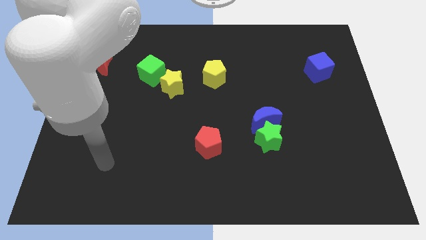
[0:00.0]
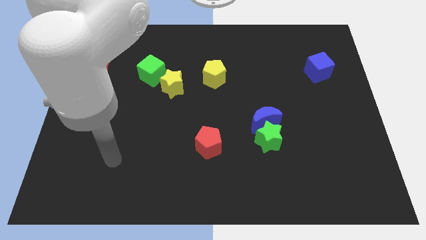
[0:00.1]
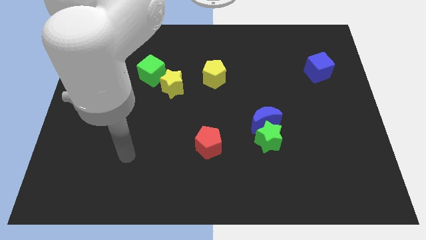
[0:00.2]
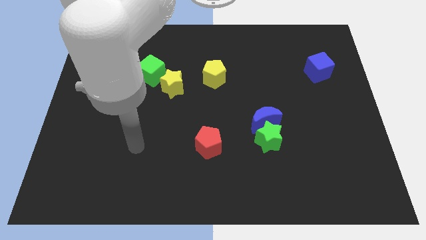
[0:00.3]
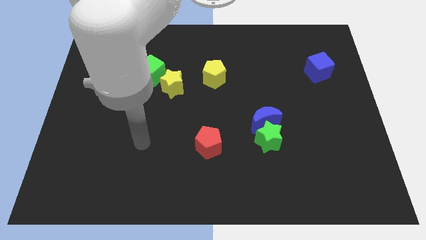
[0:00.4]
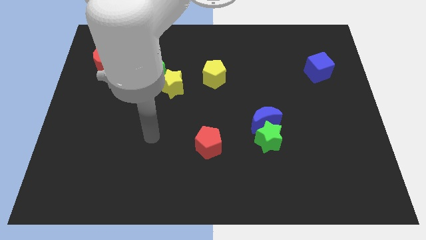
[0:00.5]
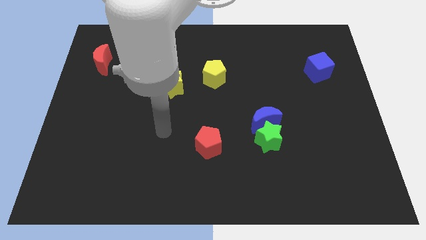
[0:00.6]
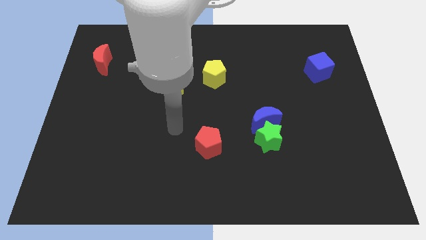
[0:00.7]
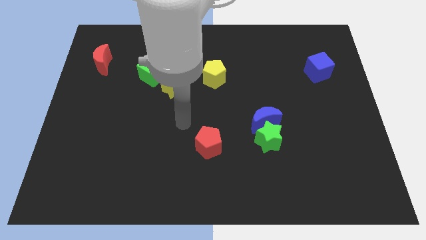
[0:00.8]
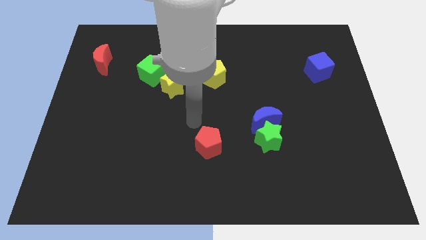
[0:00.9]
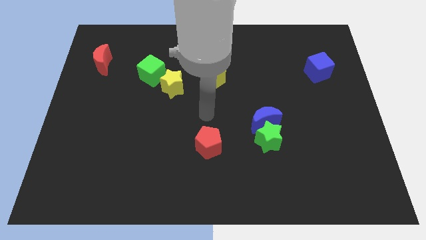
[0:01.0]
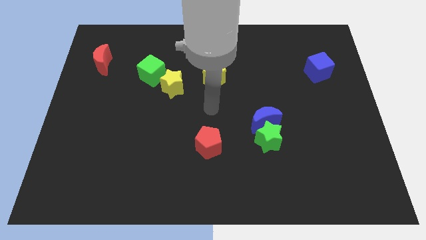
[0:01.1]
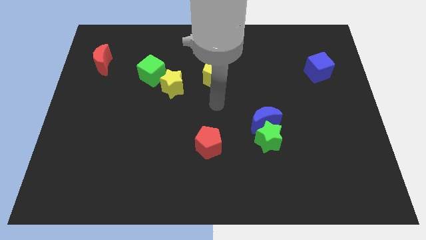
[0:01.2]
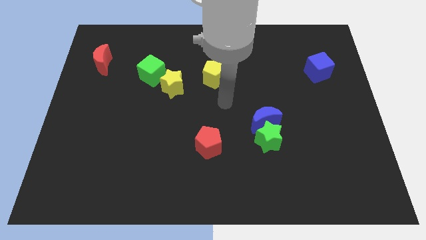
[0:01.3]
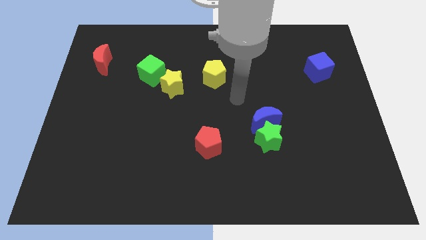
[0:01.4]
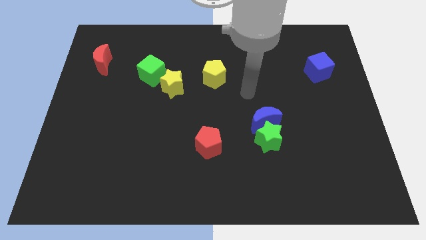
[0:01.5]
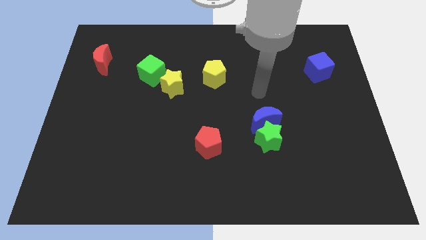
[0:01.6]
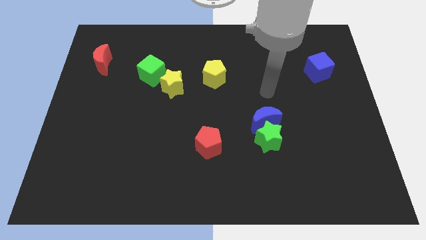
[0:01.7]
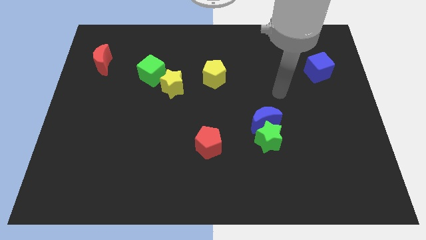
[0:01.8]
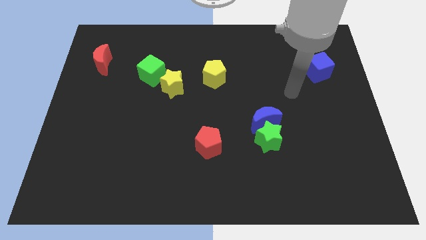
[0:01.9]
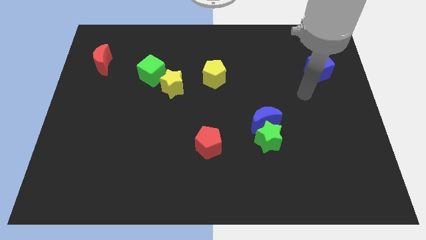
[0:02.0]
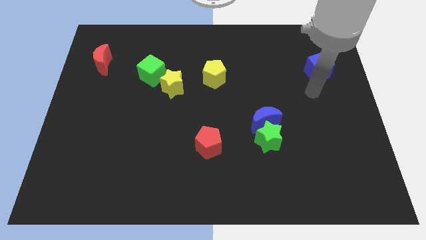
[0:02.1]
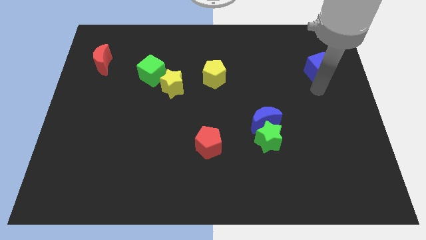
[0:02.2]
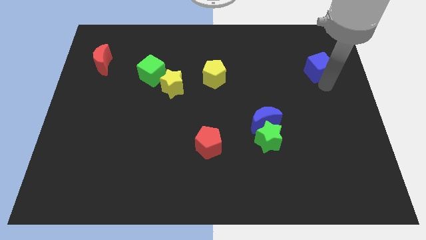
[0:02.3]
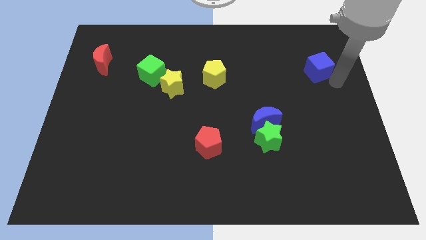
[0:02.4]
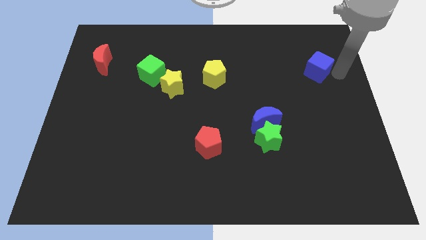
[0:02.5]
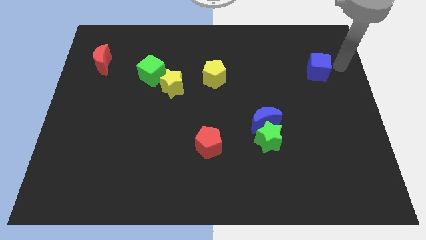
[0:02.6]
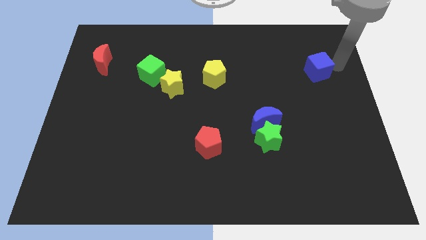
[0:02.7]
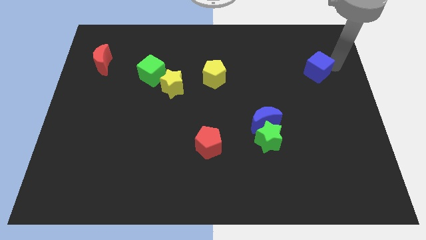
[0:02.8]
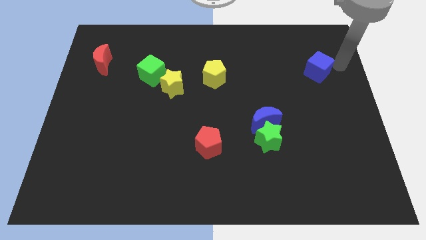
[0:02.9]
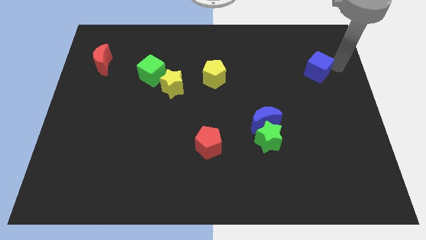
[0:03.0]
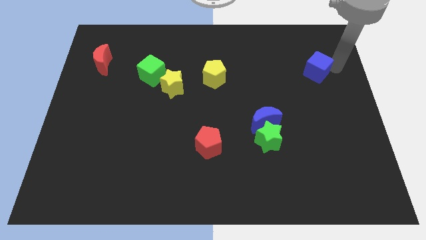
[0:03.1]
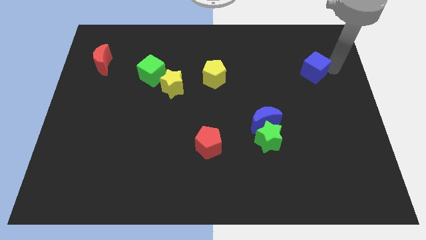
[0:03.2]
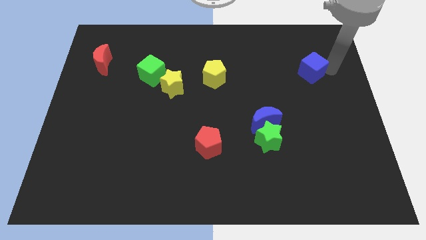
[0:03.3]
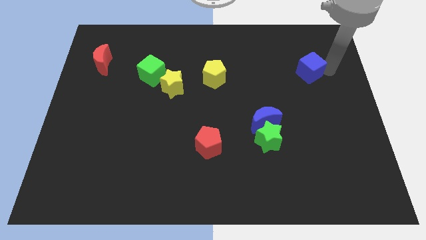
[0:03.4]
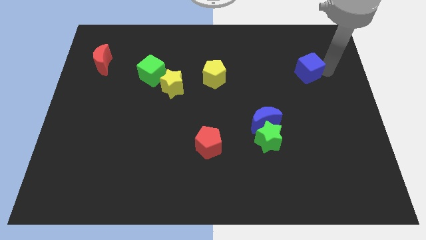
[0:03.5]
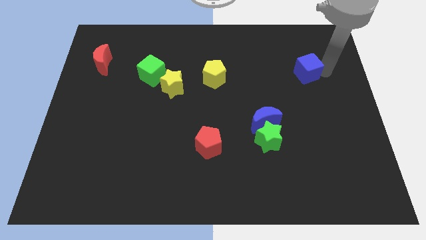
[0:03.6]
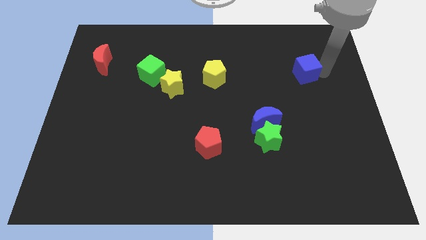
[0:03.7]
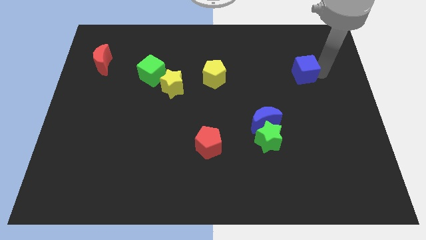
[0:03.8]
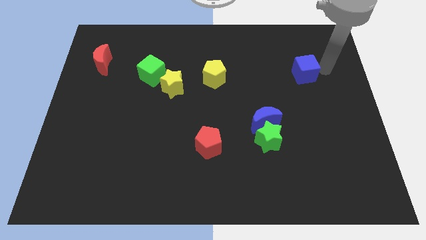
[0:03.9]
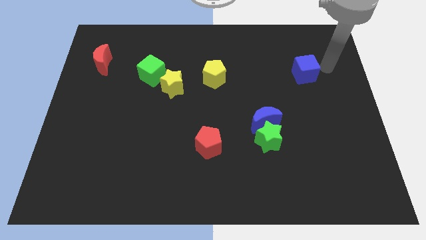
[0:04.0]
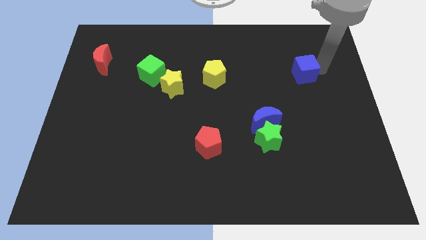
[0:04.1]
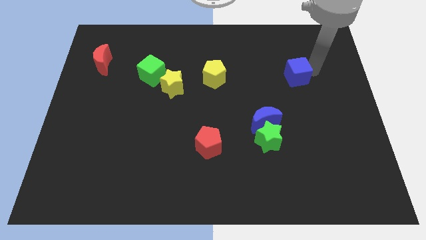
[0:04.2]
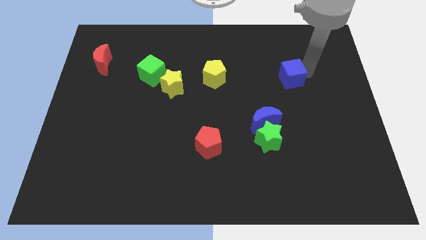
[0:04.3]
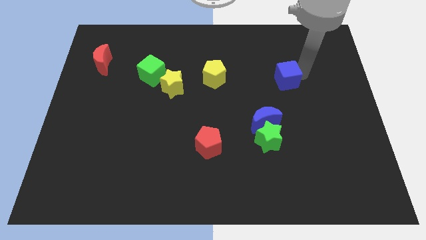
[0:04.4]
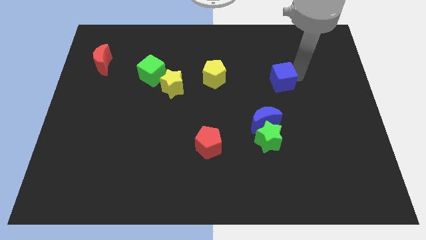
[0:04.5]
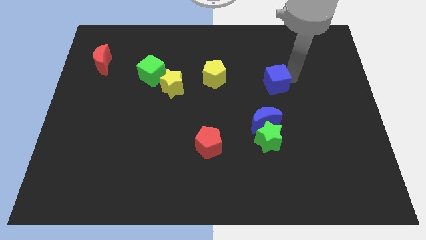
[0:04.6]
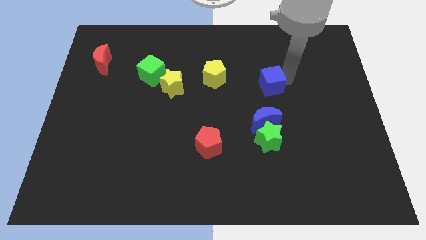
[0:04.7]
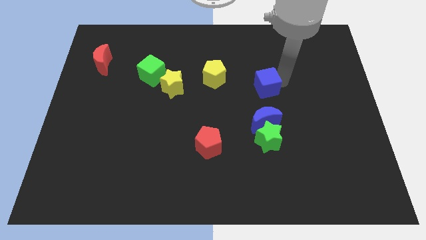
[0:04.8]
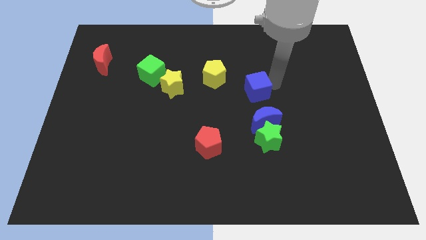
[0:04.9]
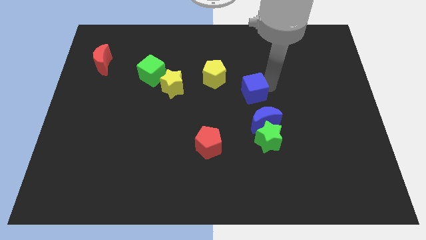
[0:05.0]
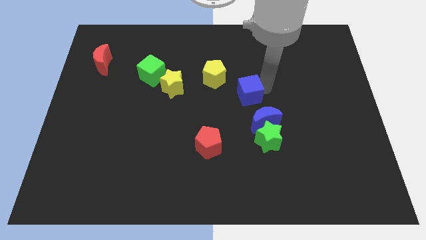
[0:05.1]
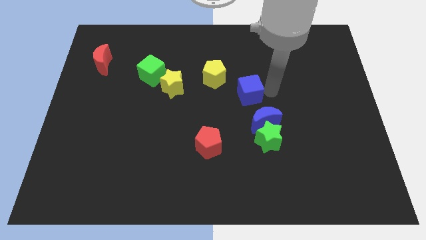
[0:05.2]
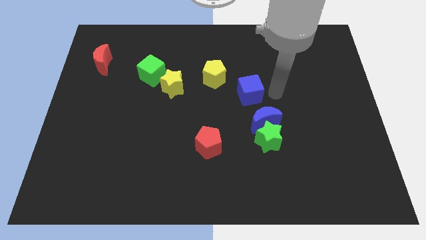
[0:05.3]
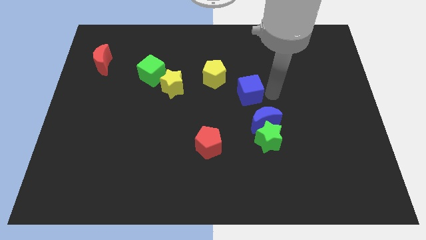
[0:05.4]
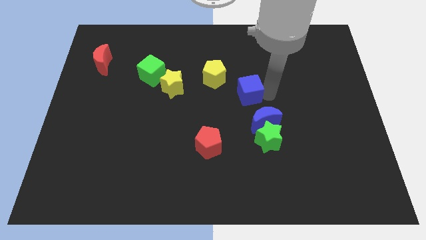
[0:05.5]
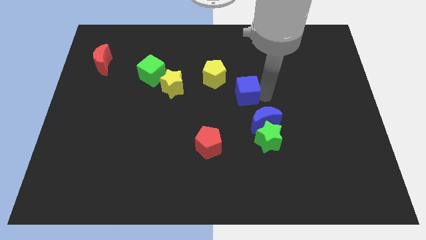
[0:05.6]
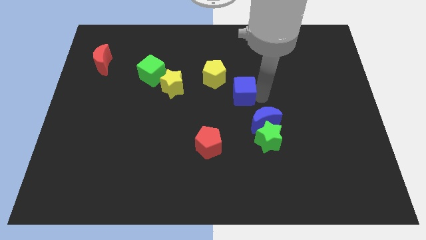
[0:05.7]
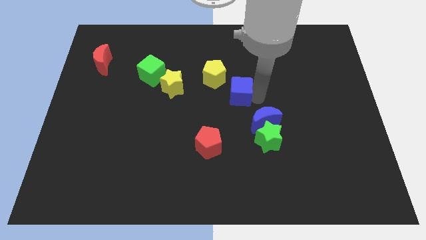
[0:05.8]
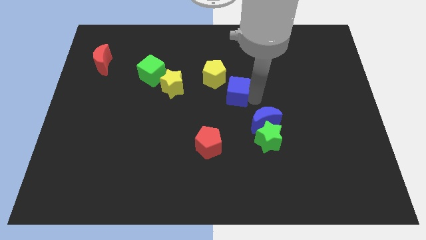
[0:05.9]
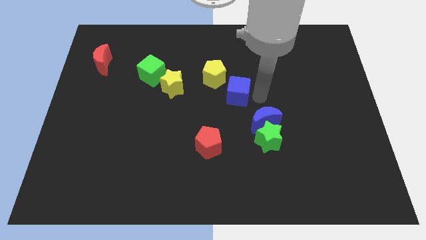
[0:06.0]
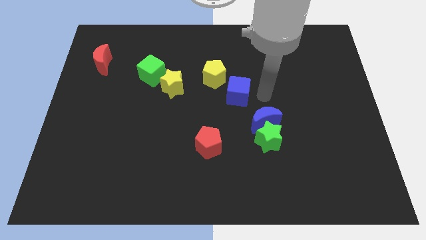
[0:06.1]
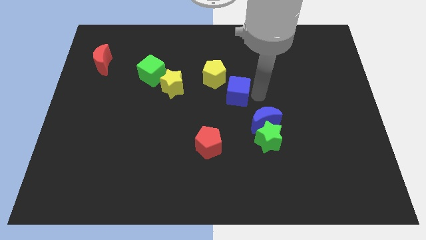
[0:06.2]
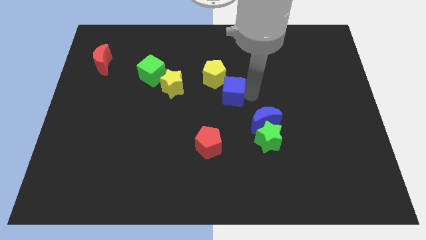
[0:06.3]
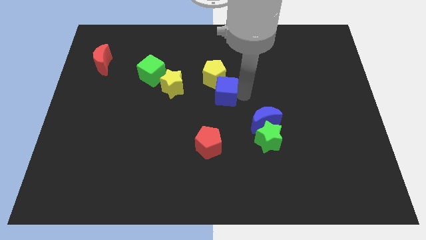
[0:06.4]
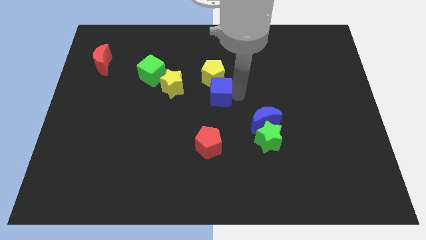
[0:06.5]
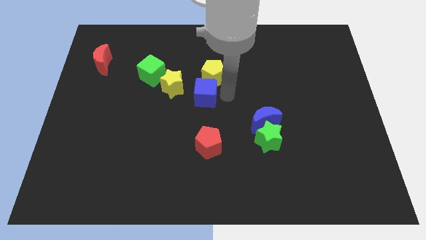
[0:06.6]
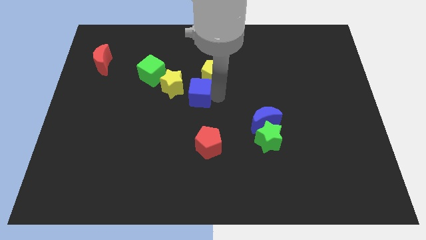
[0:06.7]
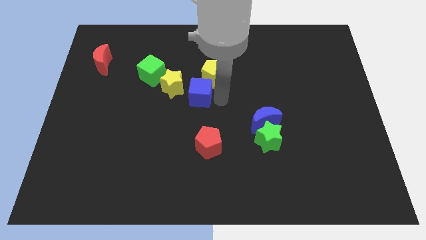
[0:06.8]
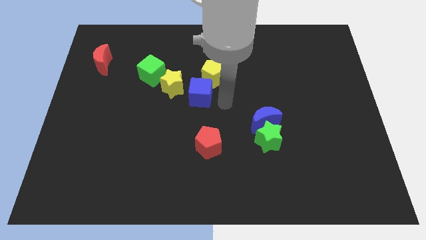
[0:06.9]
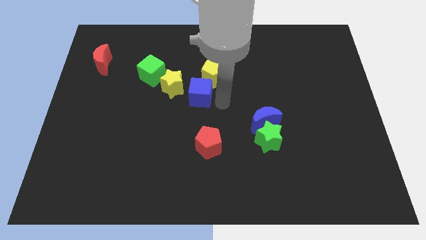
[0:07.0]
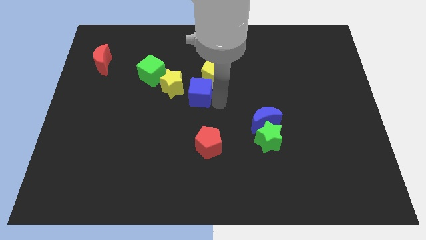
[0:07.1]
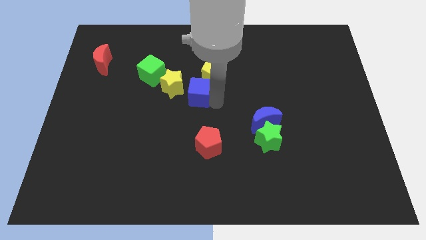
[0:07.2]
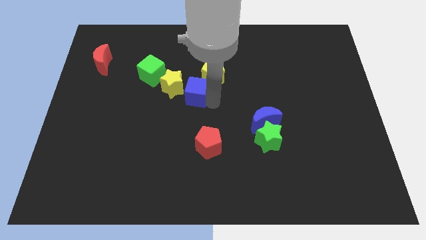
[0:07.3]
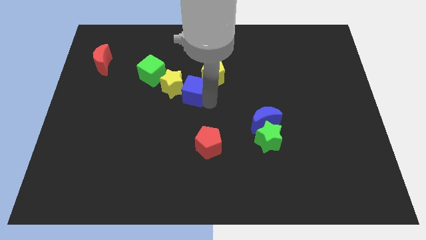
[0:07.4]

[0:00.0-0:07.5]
push the blue cube close to the yellow star
